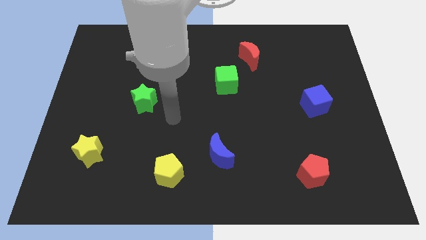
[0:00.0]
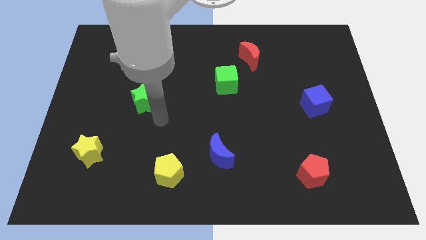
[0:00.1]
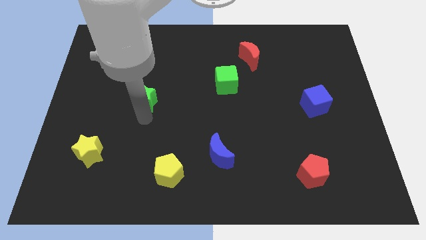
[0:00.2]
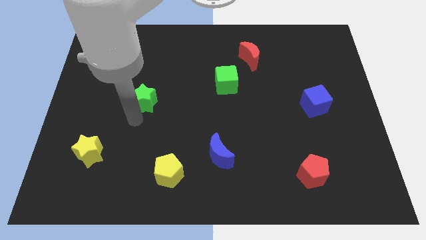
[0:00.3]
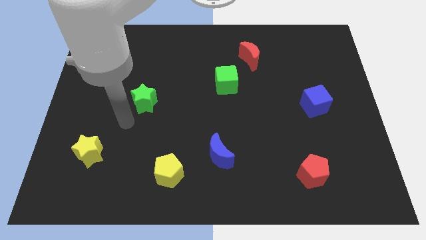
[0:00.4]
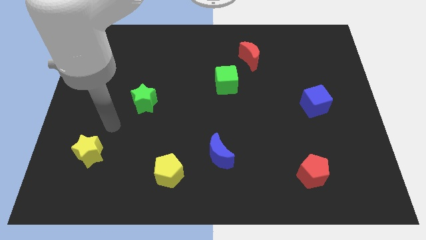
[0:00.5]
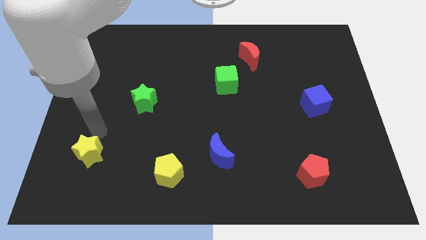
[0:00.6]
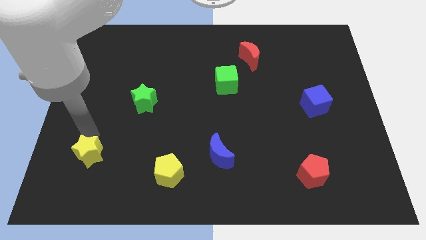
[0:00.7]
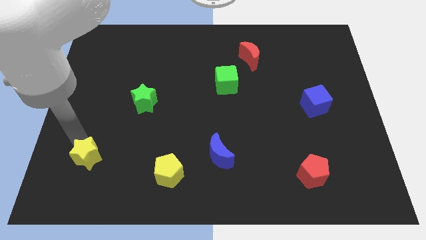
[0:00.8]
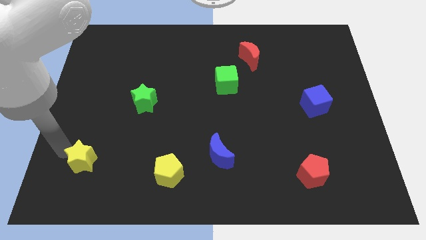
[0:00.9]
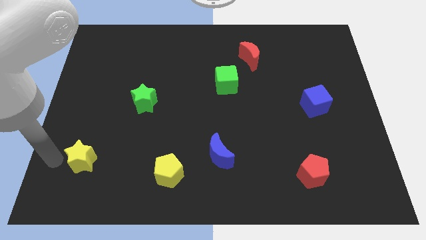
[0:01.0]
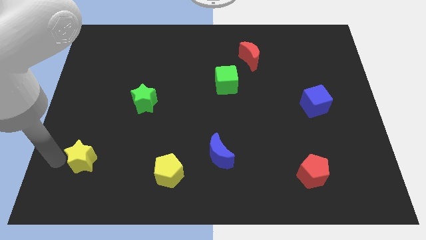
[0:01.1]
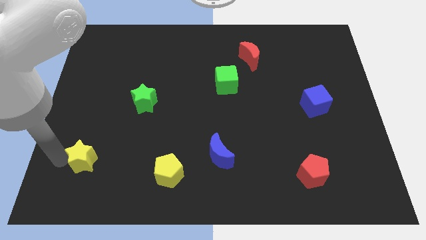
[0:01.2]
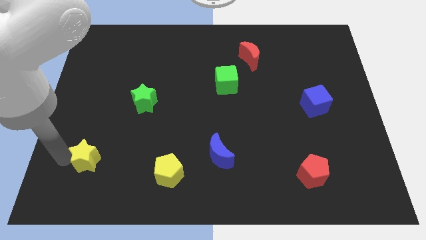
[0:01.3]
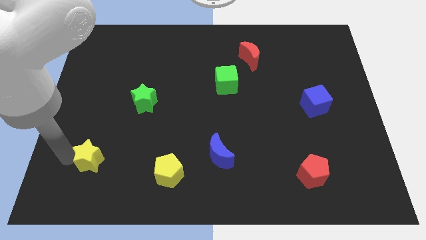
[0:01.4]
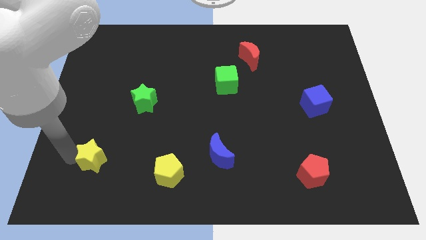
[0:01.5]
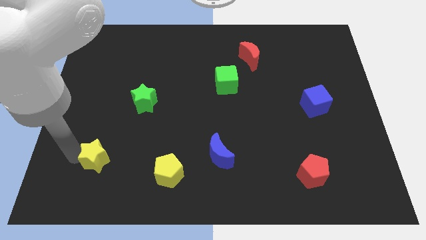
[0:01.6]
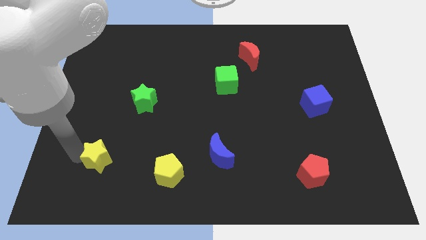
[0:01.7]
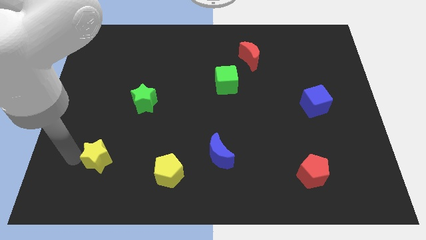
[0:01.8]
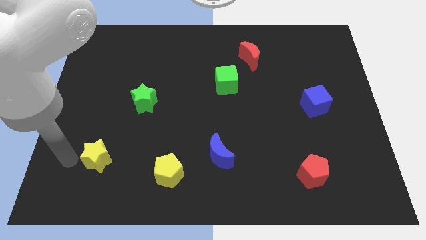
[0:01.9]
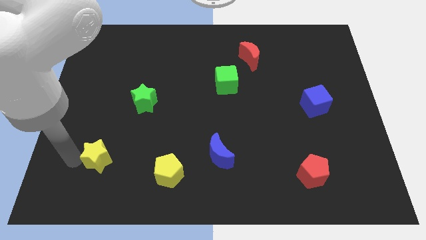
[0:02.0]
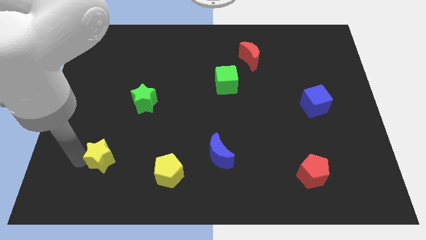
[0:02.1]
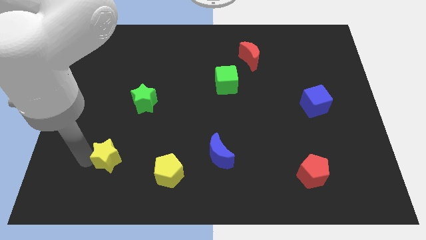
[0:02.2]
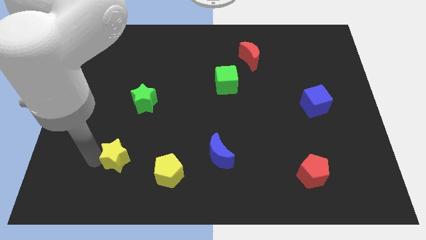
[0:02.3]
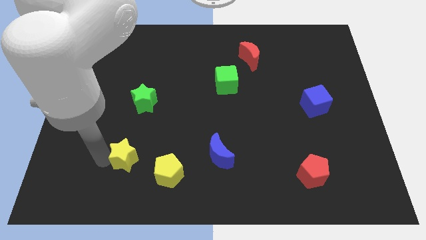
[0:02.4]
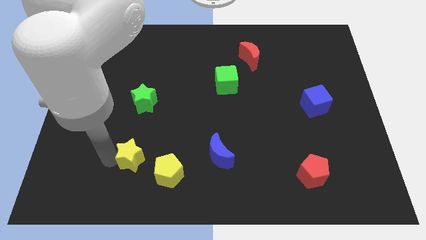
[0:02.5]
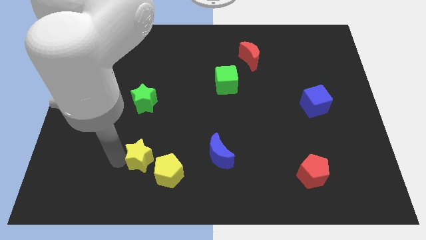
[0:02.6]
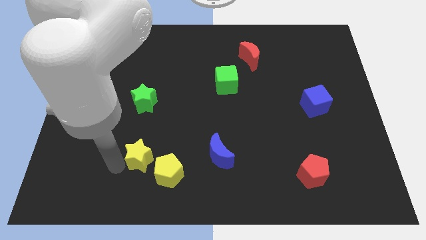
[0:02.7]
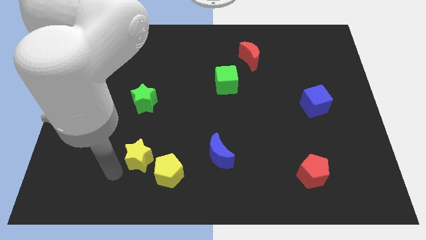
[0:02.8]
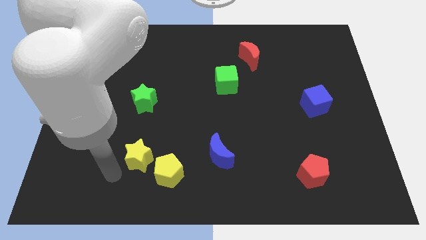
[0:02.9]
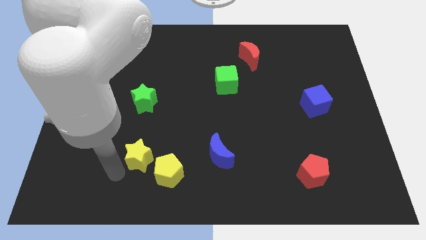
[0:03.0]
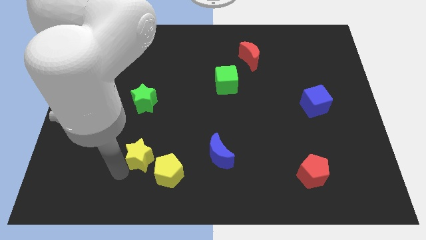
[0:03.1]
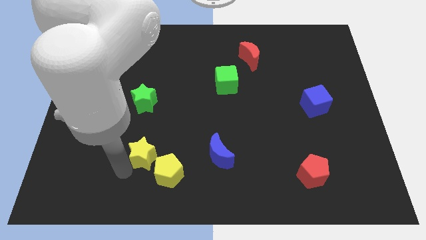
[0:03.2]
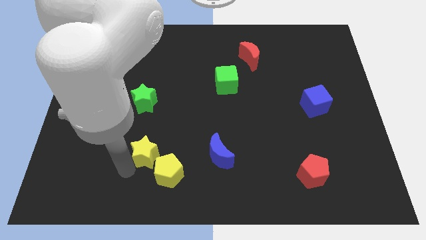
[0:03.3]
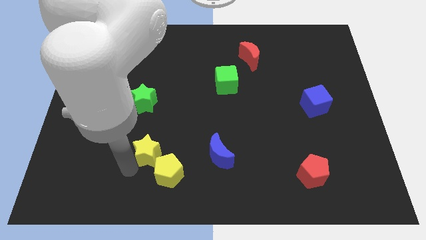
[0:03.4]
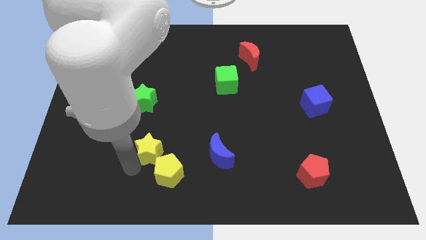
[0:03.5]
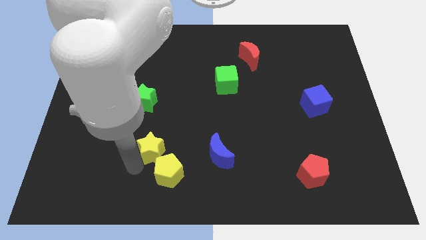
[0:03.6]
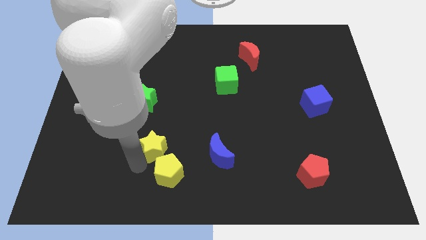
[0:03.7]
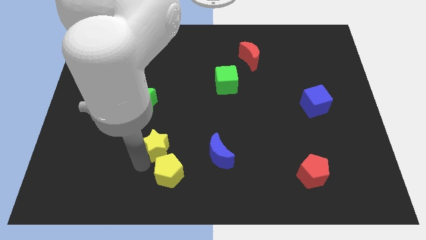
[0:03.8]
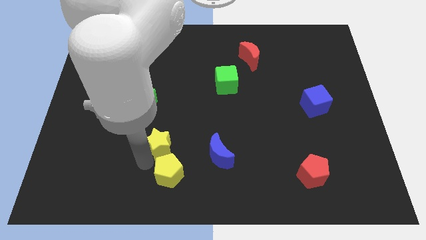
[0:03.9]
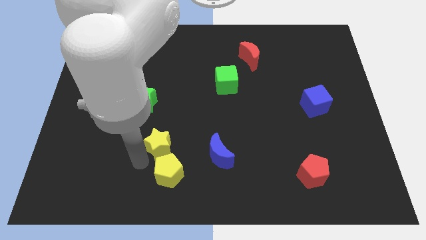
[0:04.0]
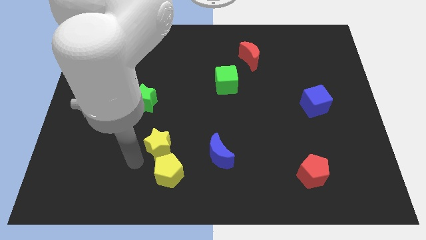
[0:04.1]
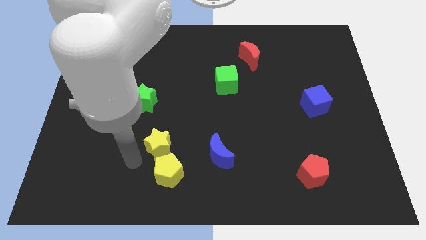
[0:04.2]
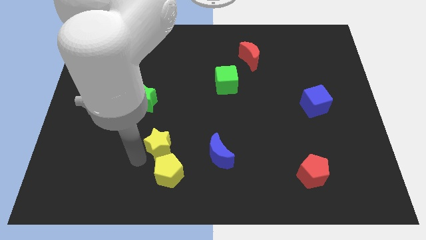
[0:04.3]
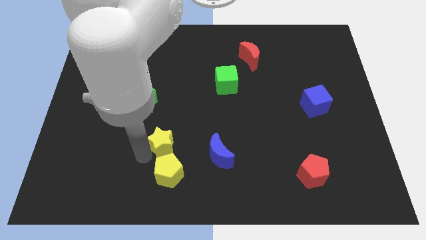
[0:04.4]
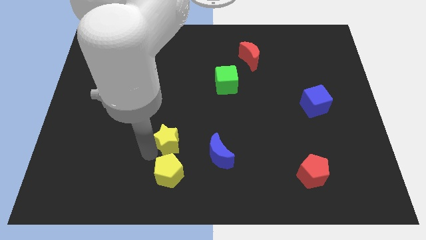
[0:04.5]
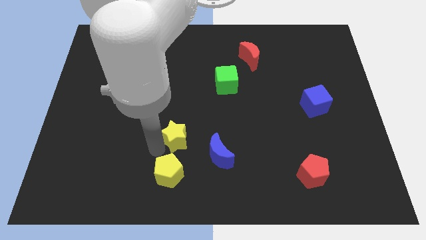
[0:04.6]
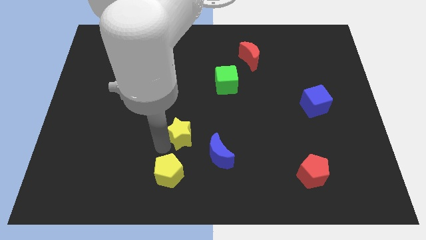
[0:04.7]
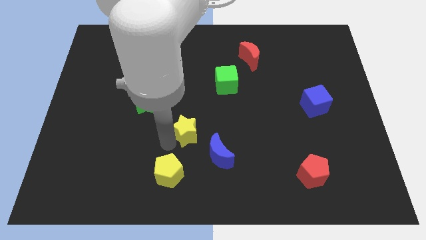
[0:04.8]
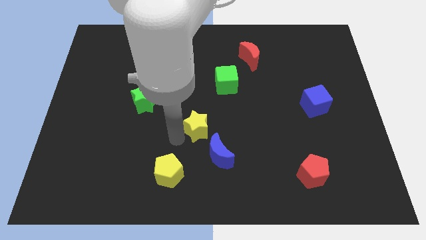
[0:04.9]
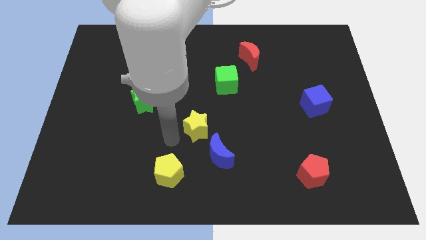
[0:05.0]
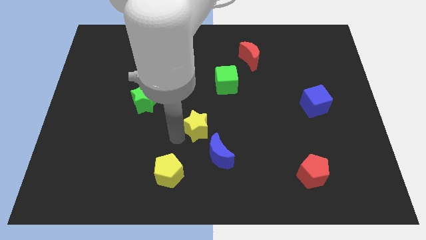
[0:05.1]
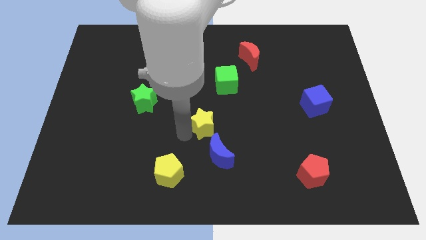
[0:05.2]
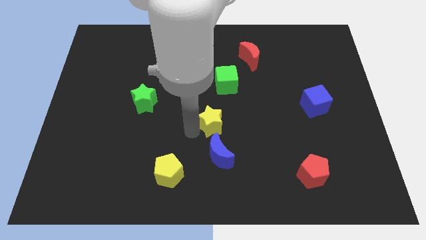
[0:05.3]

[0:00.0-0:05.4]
put the yellow star below the green cube

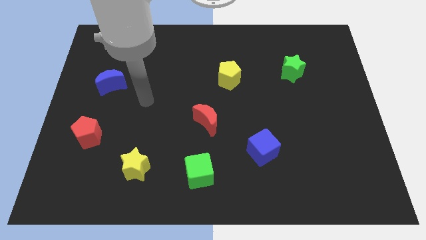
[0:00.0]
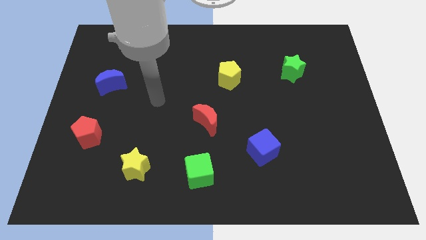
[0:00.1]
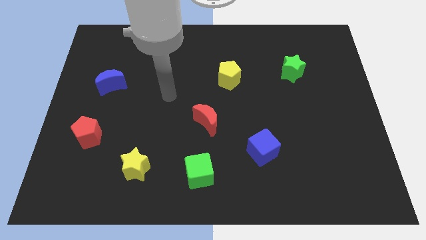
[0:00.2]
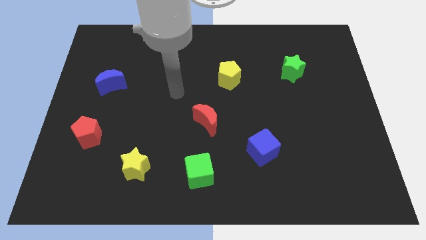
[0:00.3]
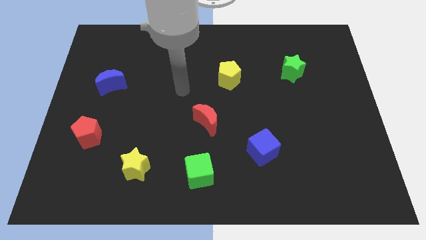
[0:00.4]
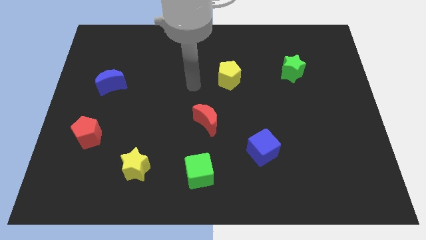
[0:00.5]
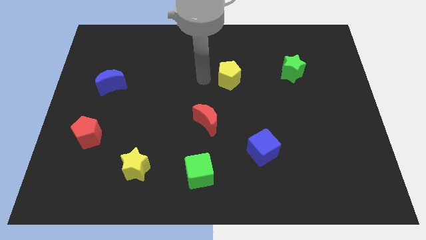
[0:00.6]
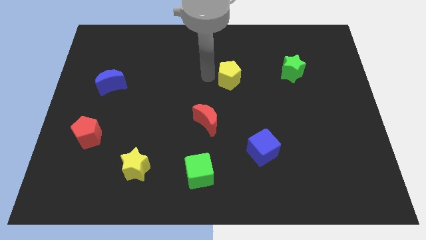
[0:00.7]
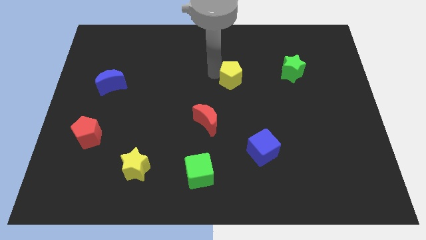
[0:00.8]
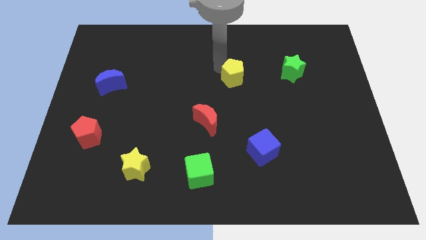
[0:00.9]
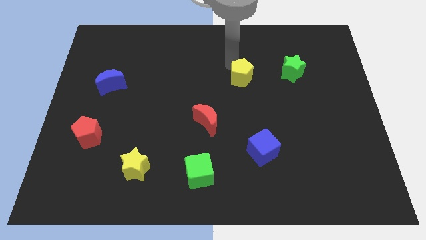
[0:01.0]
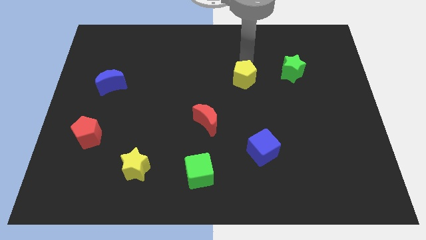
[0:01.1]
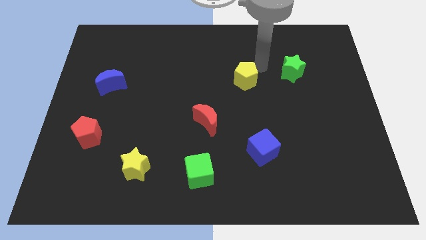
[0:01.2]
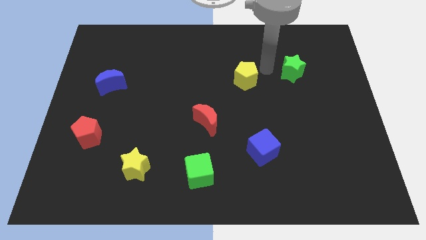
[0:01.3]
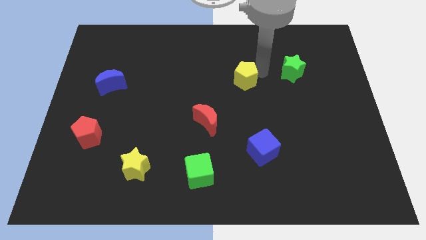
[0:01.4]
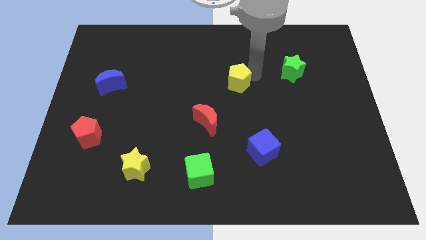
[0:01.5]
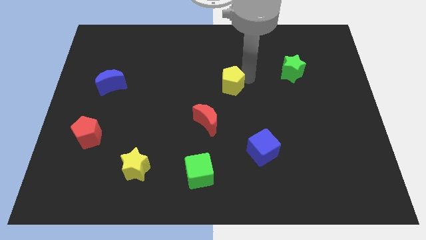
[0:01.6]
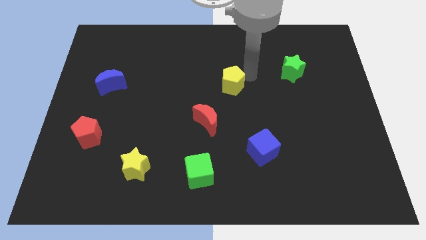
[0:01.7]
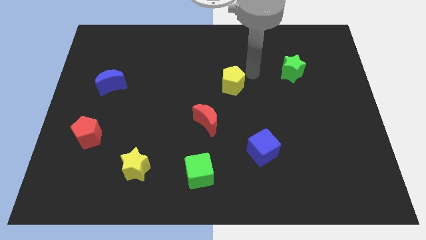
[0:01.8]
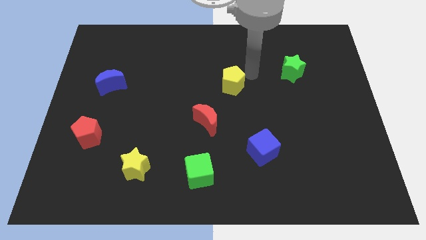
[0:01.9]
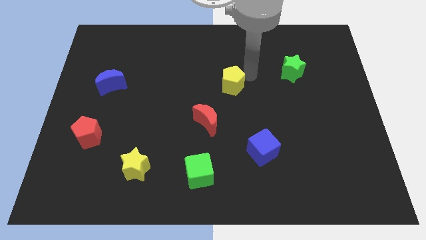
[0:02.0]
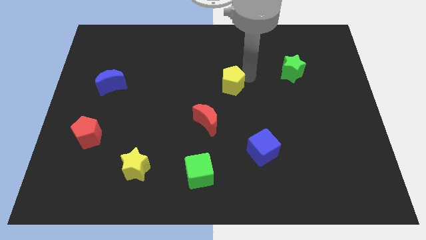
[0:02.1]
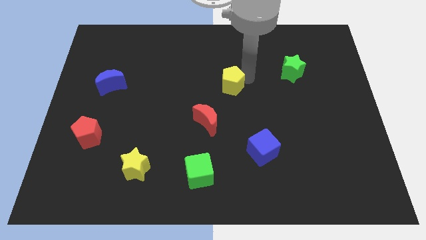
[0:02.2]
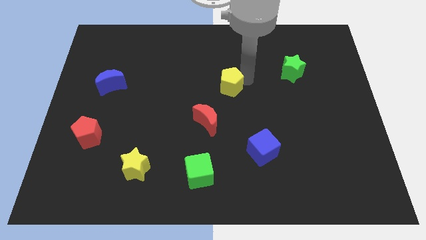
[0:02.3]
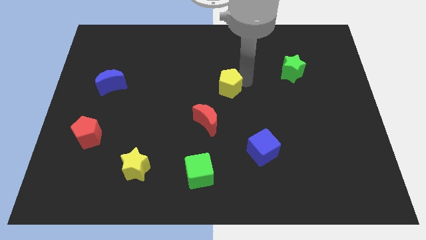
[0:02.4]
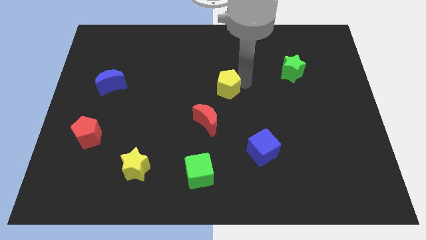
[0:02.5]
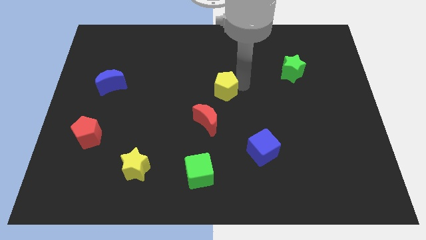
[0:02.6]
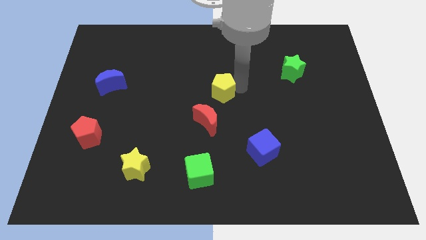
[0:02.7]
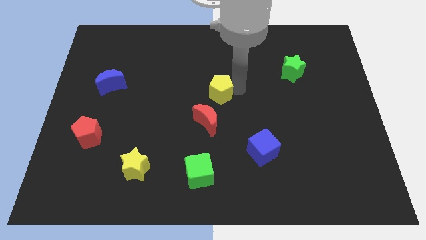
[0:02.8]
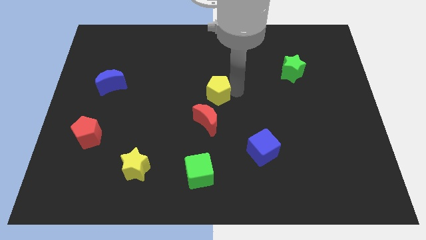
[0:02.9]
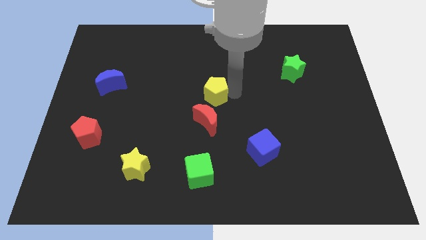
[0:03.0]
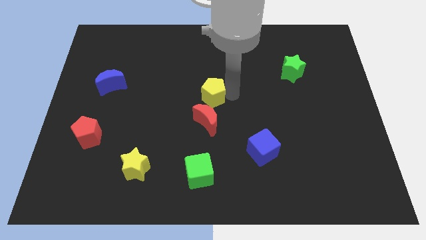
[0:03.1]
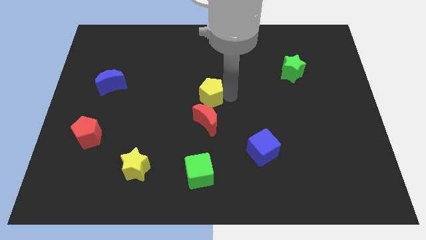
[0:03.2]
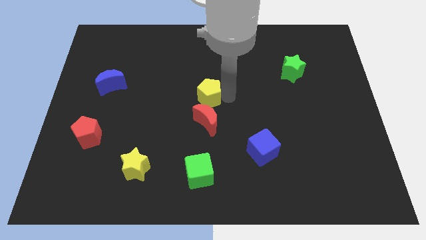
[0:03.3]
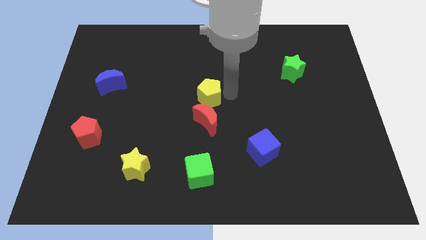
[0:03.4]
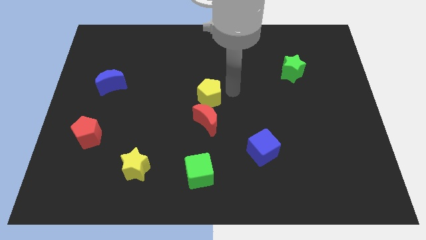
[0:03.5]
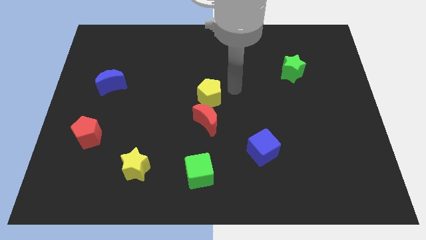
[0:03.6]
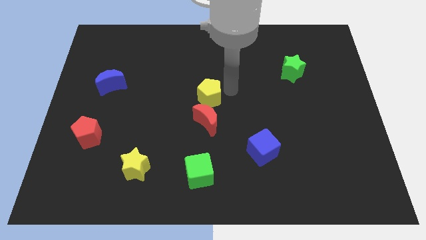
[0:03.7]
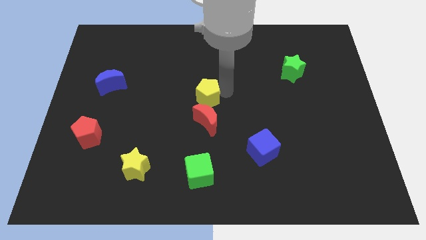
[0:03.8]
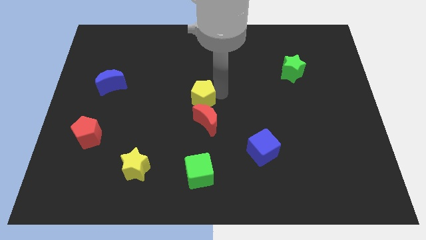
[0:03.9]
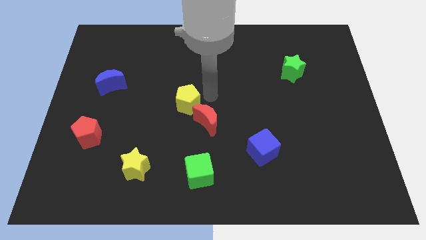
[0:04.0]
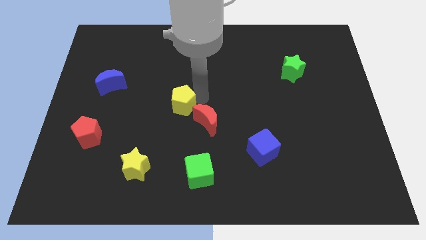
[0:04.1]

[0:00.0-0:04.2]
put the yellow pentagon left of the red moon
